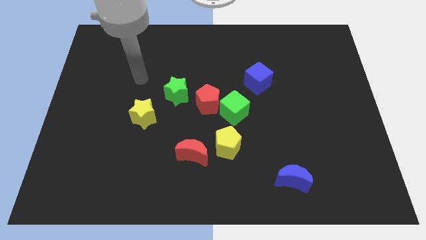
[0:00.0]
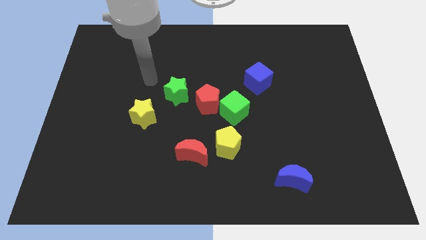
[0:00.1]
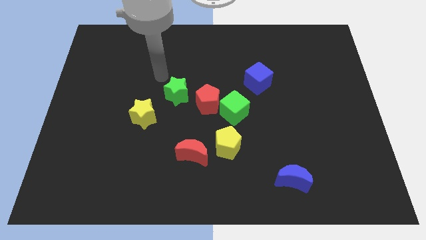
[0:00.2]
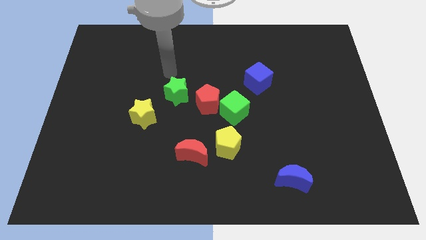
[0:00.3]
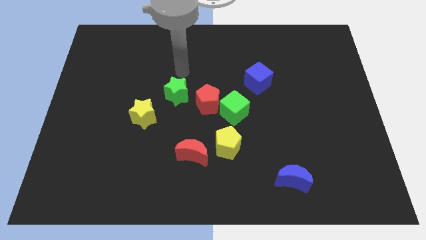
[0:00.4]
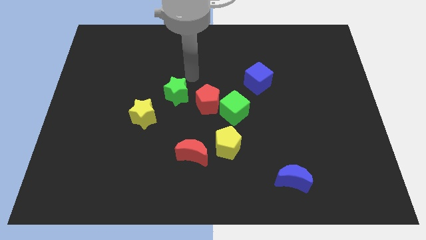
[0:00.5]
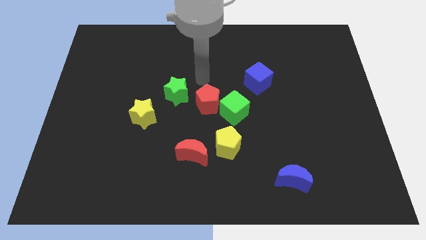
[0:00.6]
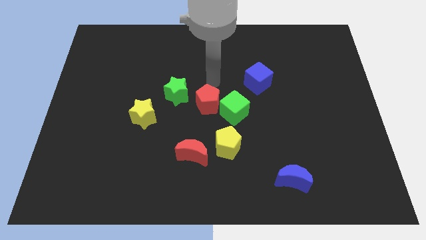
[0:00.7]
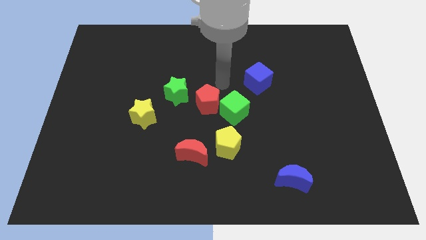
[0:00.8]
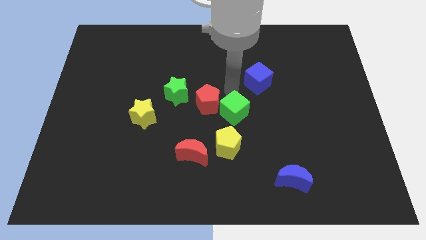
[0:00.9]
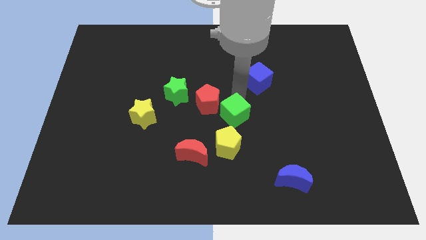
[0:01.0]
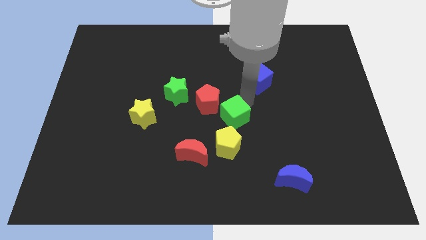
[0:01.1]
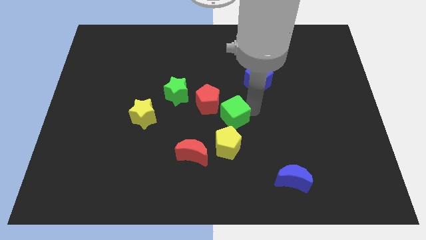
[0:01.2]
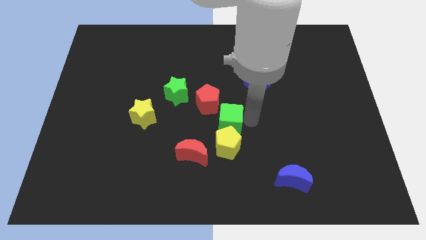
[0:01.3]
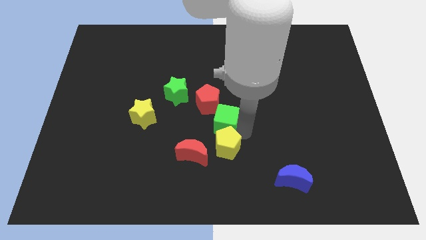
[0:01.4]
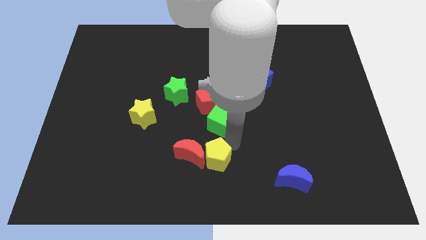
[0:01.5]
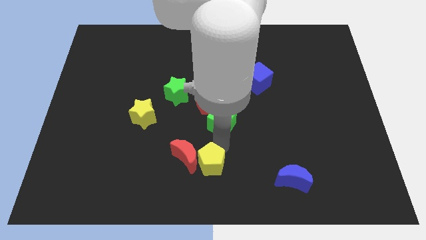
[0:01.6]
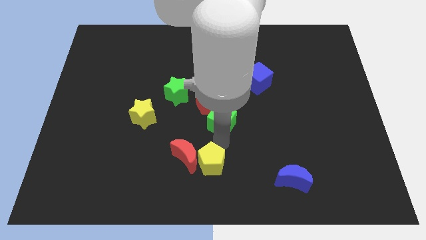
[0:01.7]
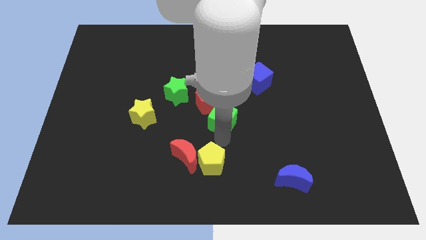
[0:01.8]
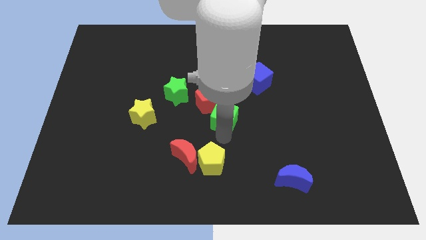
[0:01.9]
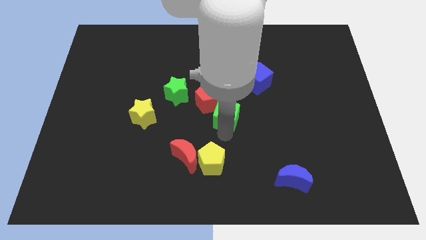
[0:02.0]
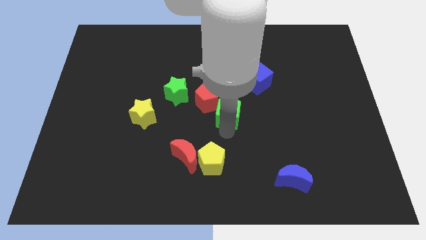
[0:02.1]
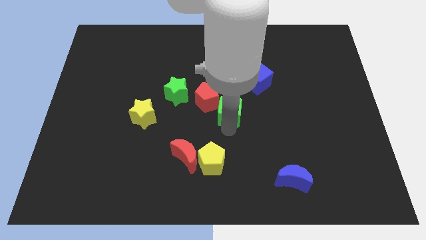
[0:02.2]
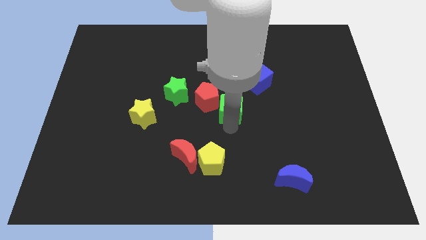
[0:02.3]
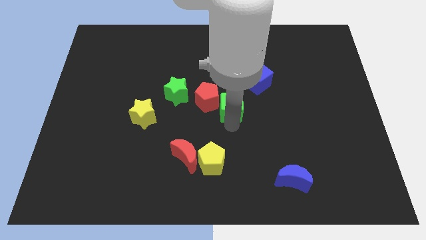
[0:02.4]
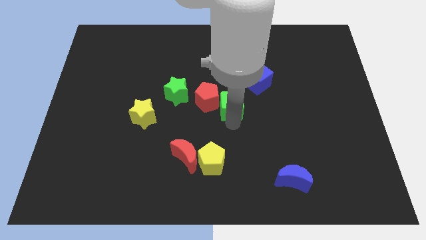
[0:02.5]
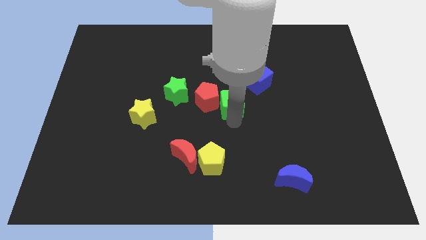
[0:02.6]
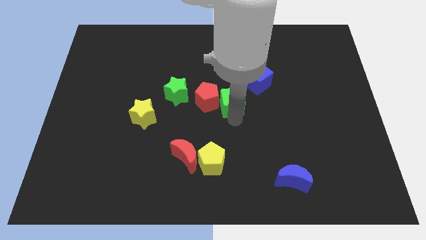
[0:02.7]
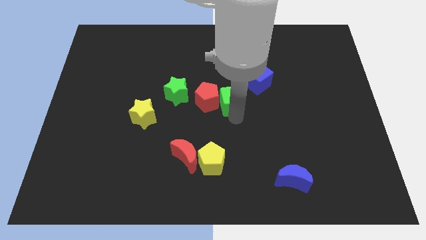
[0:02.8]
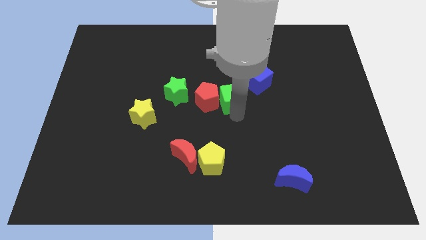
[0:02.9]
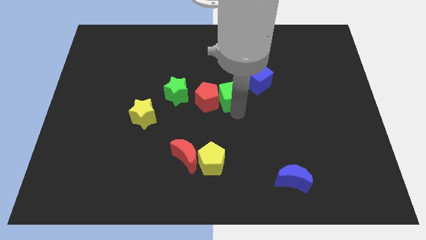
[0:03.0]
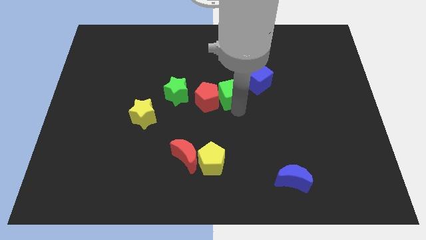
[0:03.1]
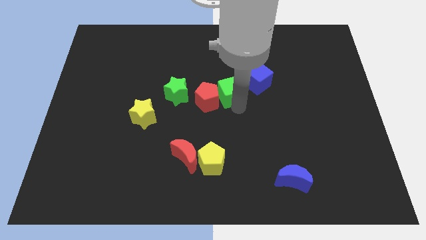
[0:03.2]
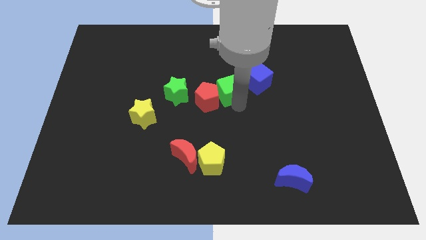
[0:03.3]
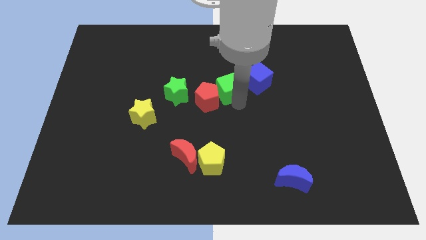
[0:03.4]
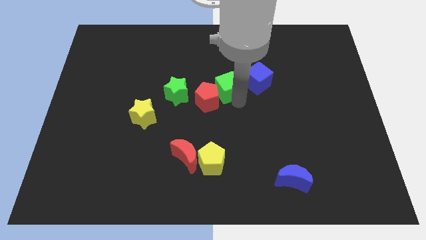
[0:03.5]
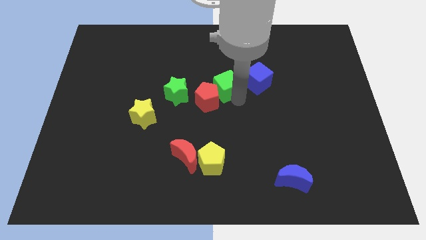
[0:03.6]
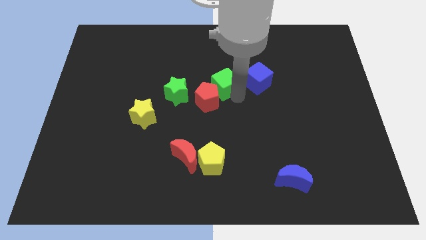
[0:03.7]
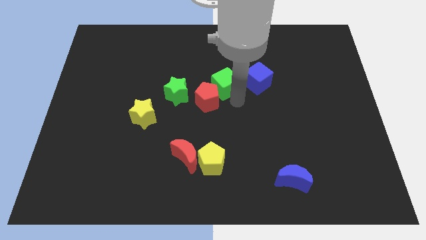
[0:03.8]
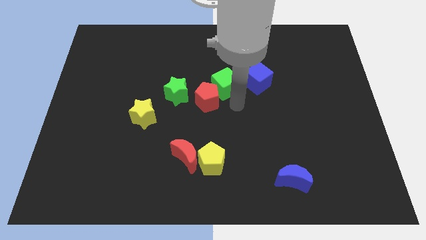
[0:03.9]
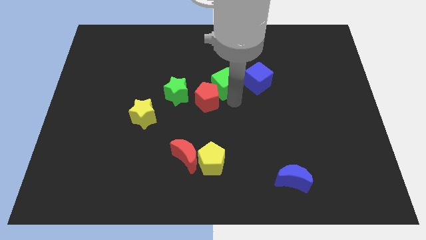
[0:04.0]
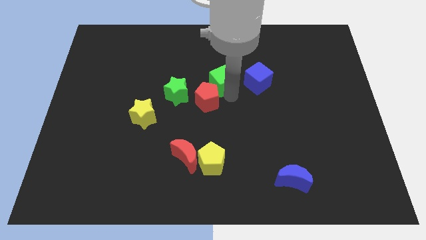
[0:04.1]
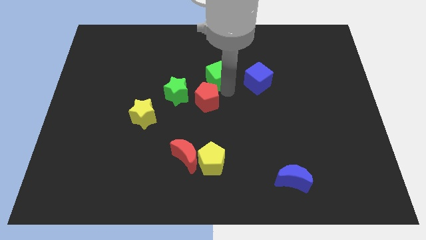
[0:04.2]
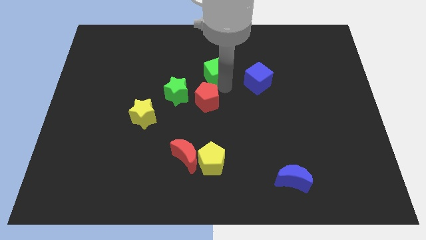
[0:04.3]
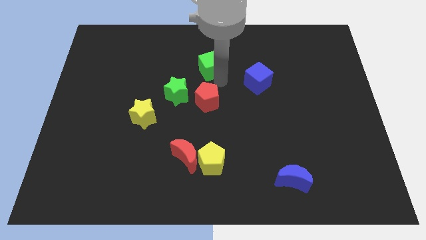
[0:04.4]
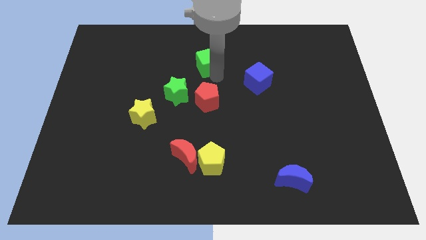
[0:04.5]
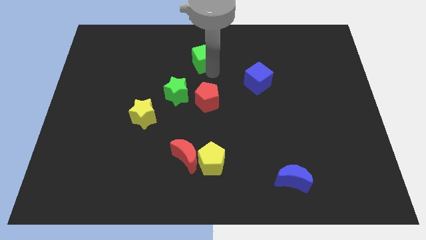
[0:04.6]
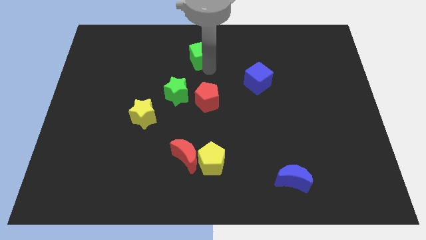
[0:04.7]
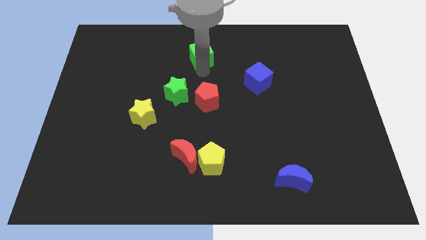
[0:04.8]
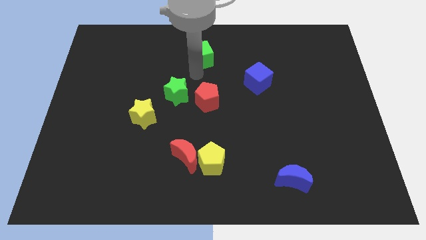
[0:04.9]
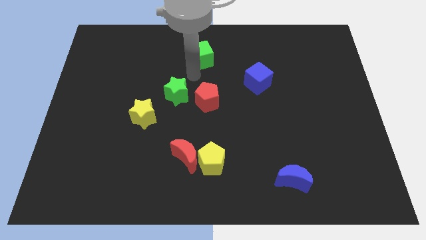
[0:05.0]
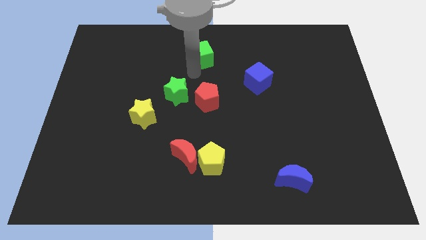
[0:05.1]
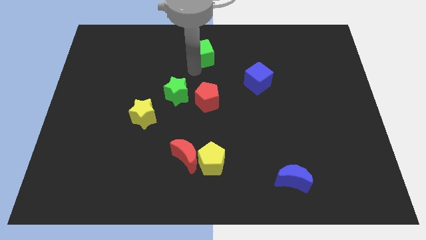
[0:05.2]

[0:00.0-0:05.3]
put the green cube to the top side

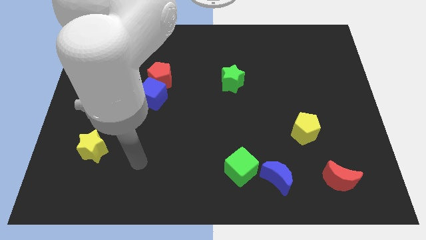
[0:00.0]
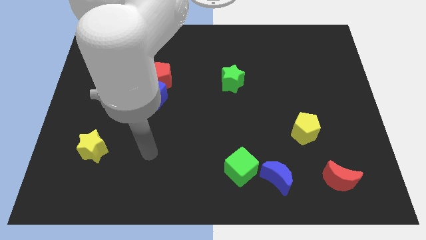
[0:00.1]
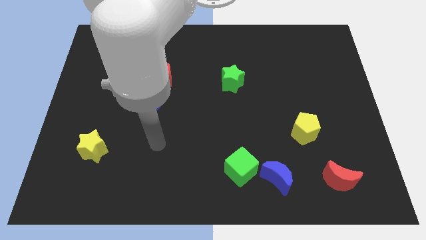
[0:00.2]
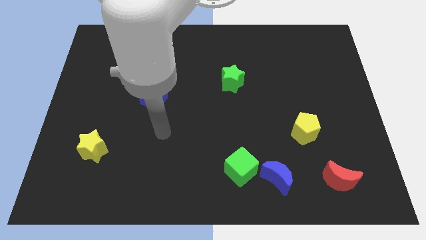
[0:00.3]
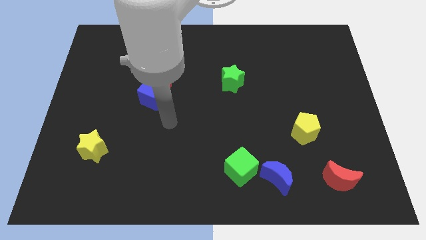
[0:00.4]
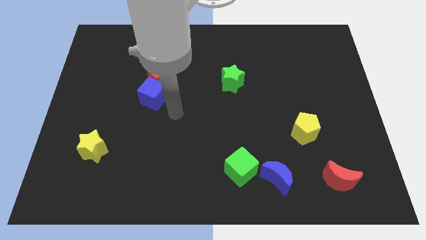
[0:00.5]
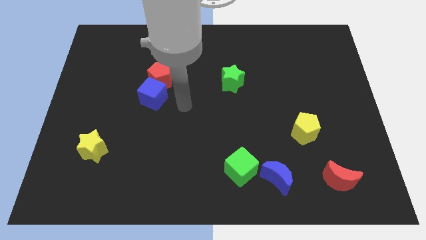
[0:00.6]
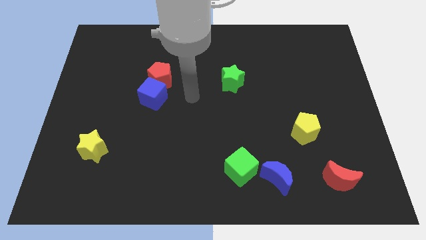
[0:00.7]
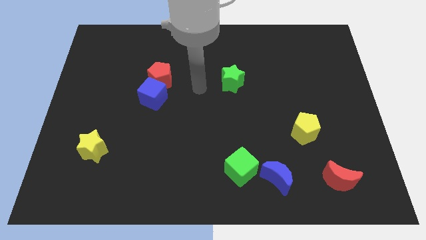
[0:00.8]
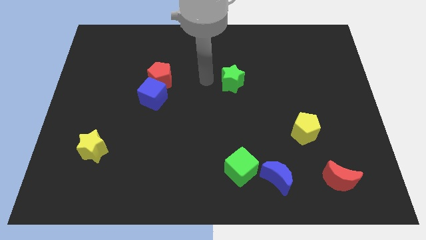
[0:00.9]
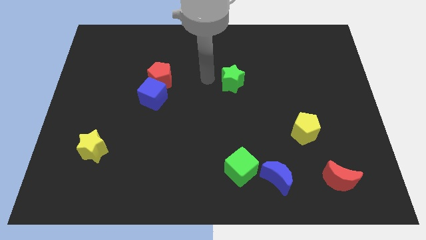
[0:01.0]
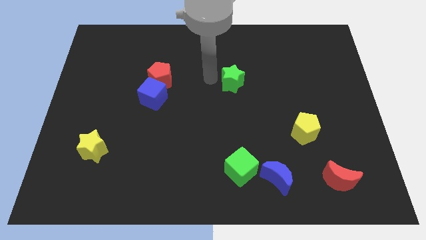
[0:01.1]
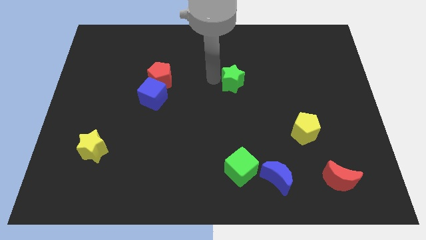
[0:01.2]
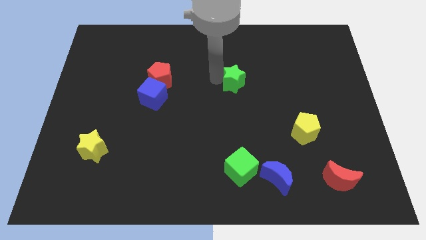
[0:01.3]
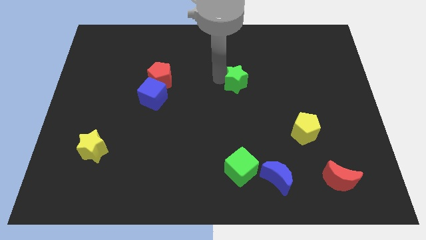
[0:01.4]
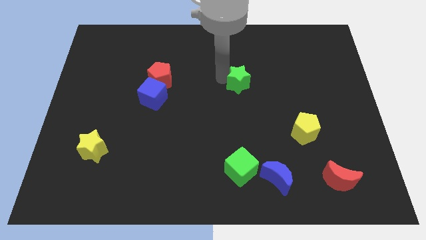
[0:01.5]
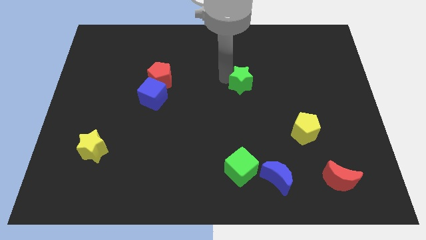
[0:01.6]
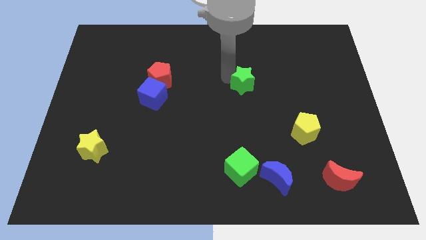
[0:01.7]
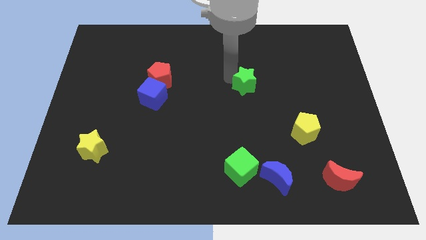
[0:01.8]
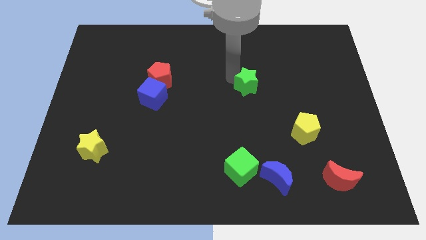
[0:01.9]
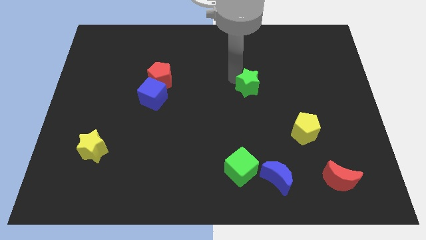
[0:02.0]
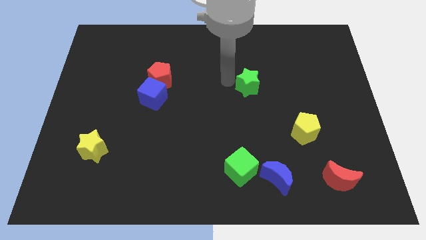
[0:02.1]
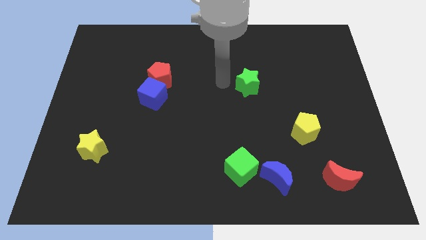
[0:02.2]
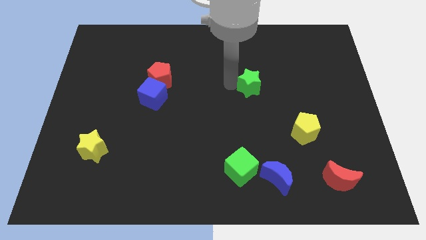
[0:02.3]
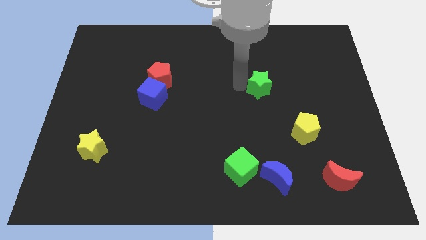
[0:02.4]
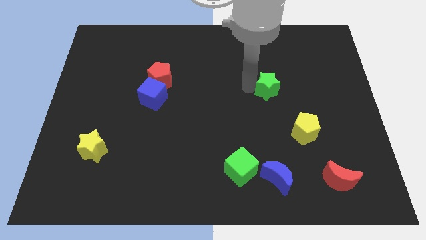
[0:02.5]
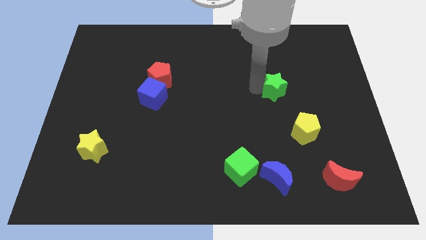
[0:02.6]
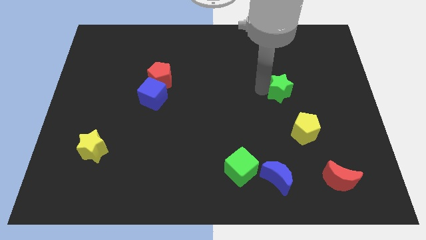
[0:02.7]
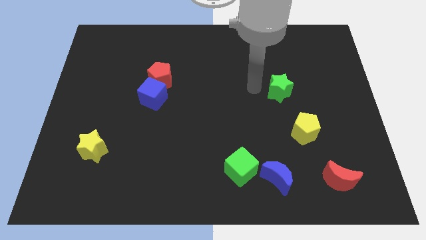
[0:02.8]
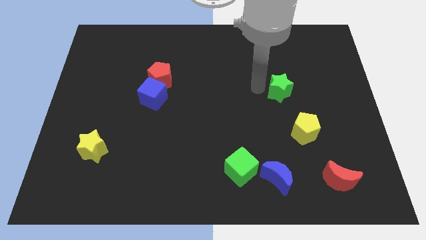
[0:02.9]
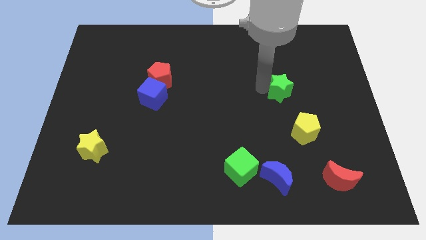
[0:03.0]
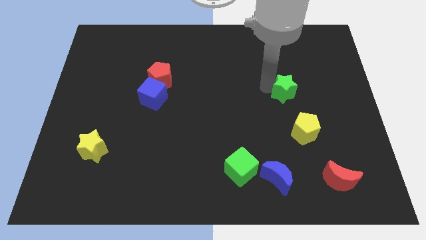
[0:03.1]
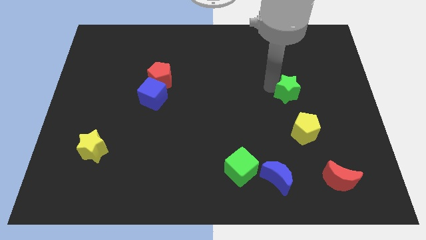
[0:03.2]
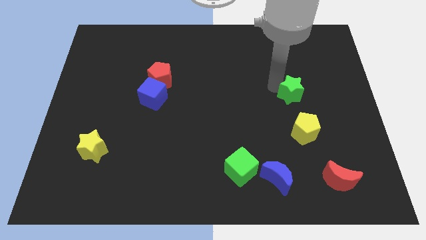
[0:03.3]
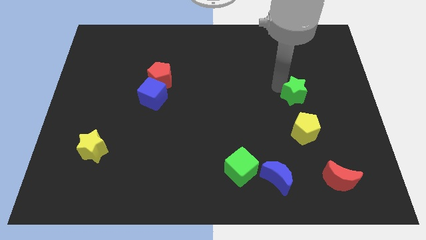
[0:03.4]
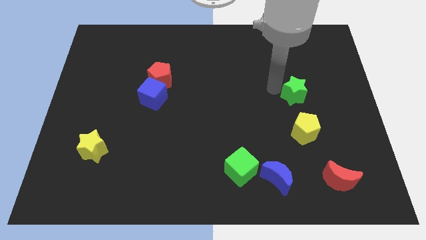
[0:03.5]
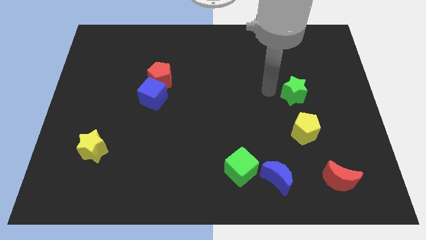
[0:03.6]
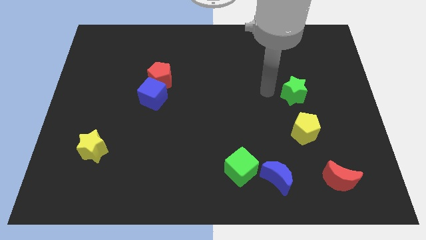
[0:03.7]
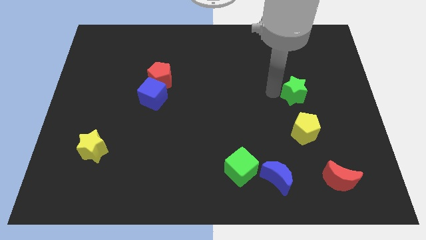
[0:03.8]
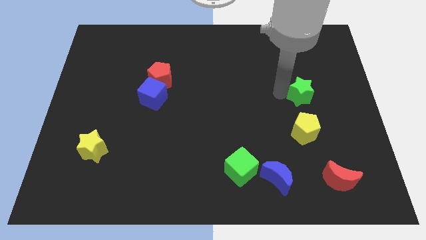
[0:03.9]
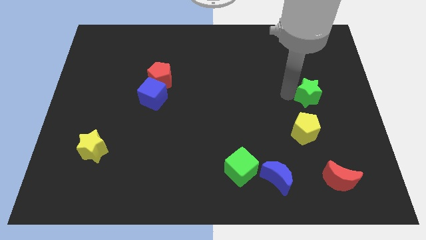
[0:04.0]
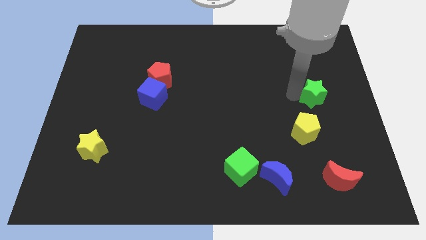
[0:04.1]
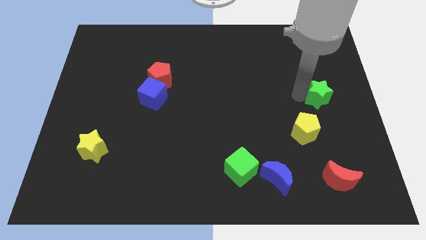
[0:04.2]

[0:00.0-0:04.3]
slide the green star to the right side
